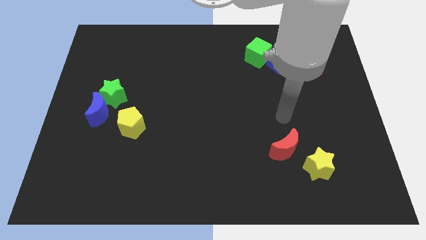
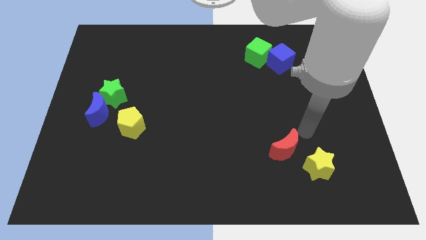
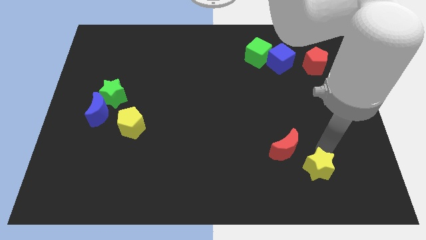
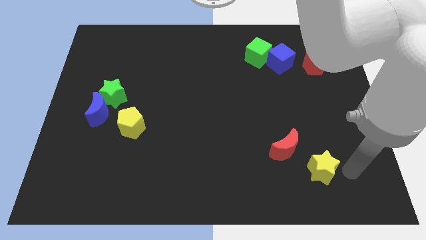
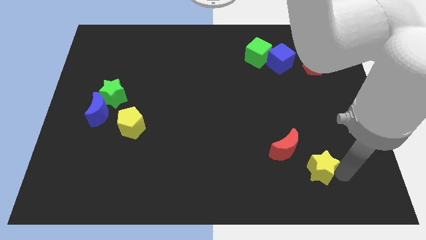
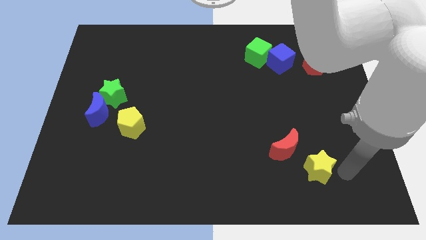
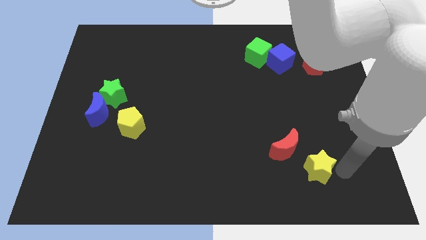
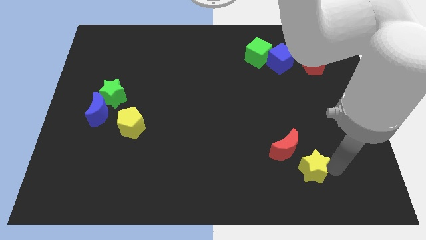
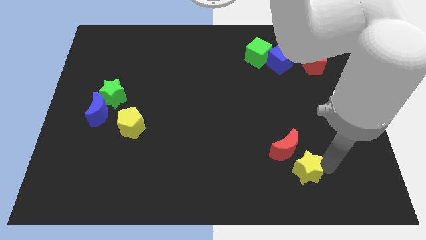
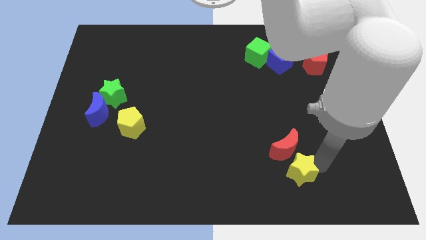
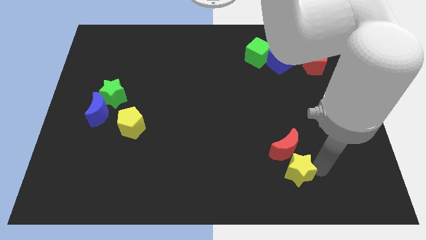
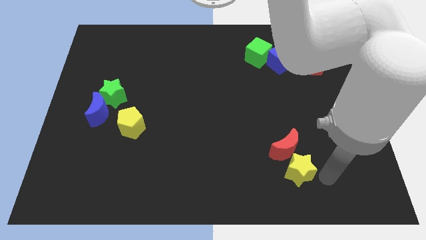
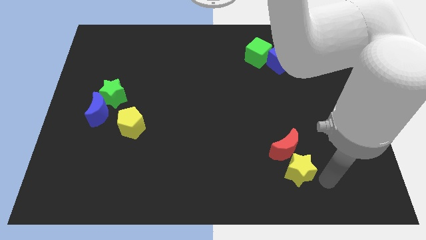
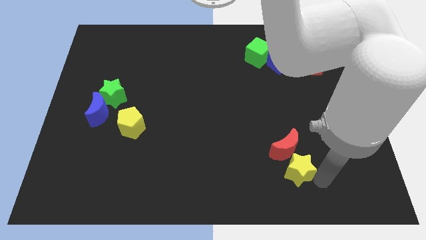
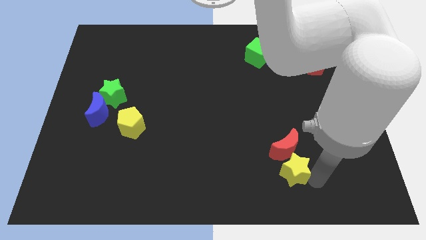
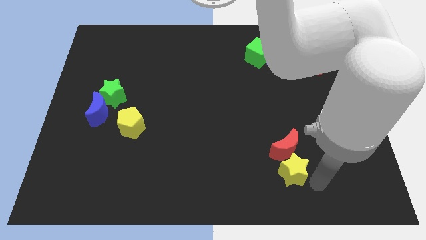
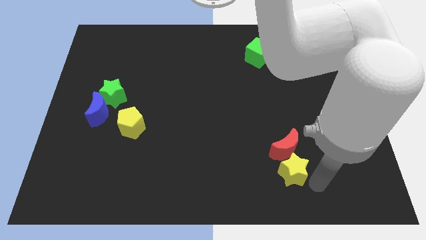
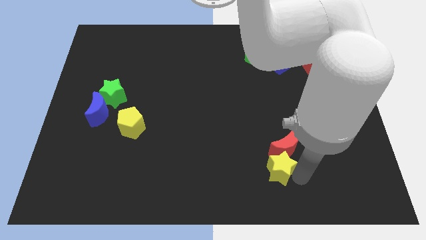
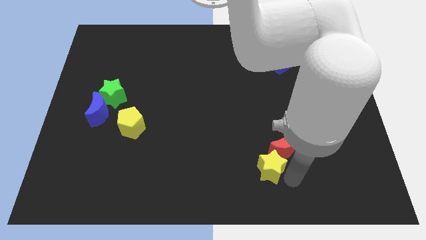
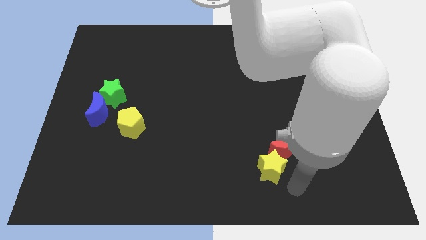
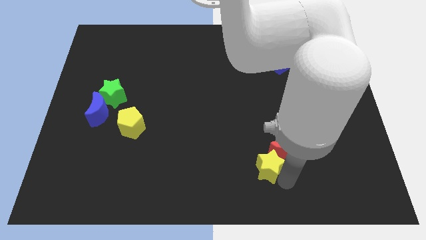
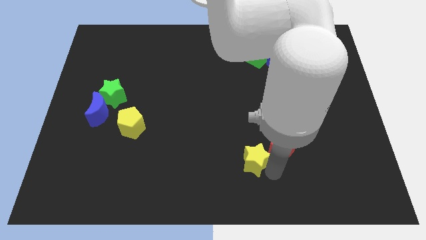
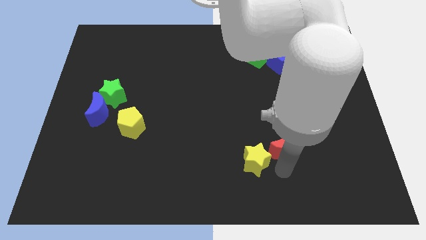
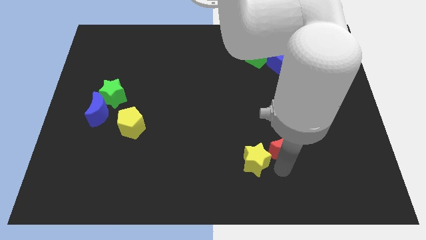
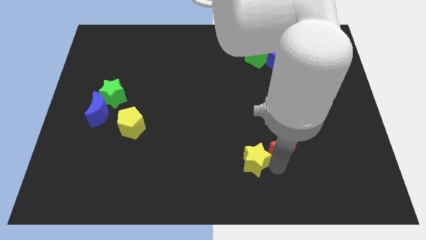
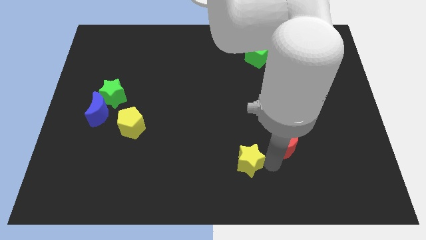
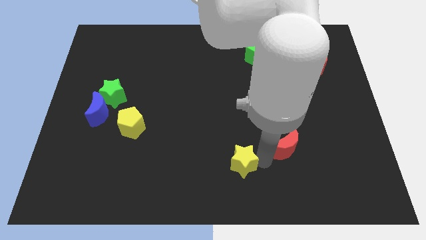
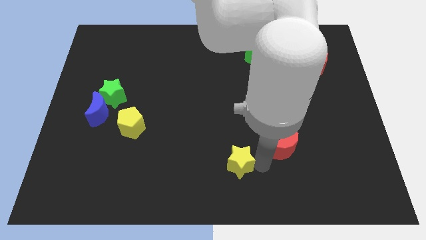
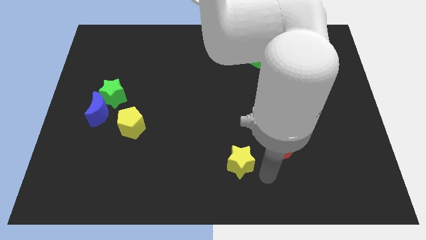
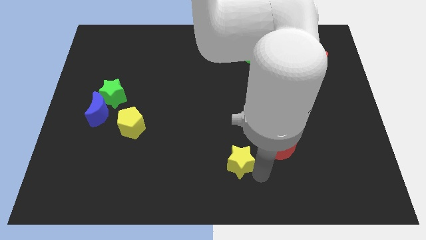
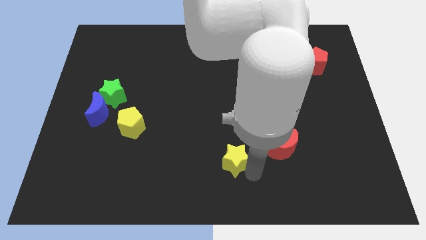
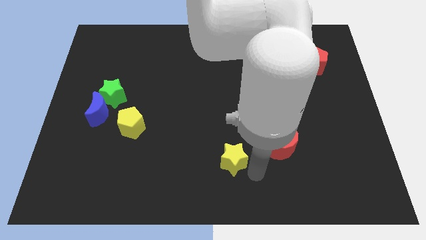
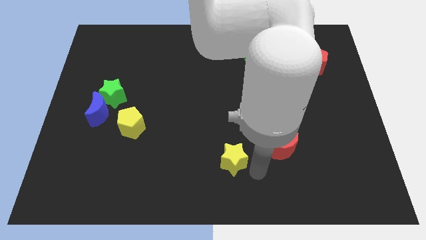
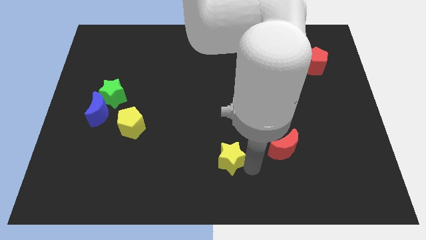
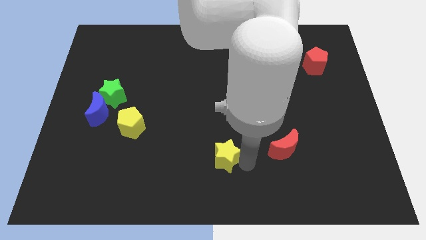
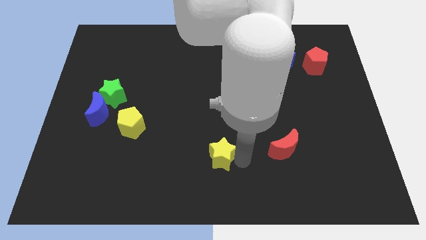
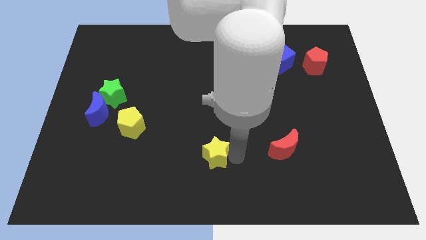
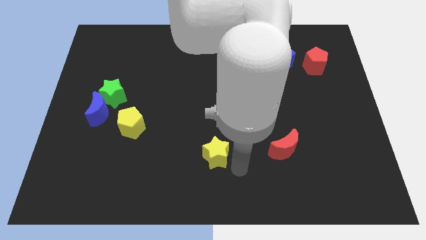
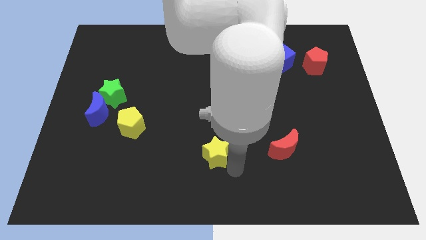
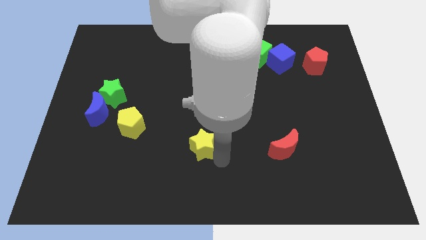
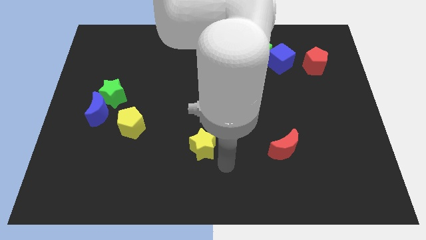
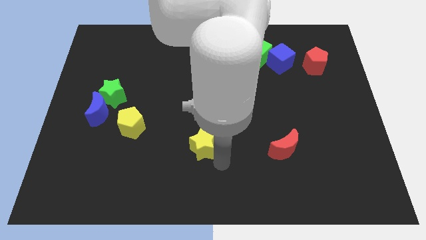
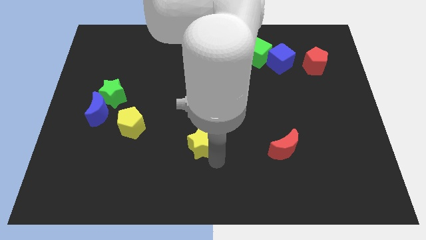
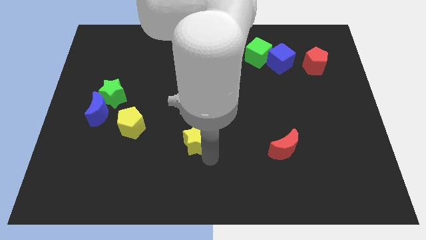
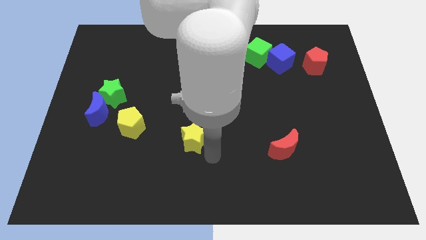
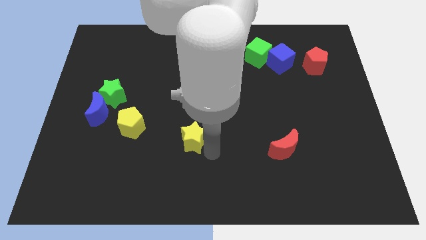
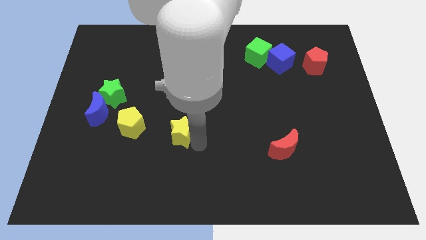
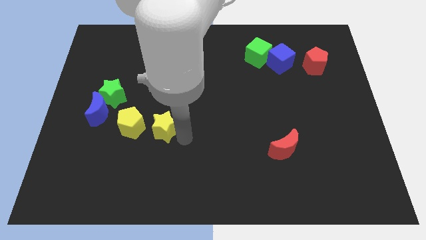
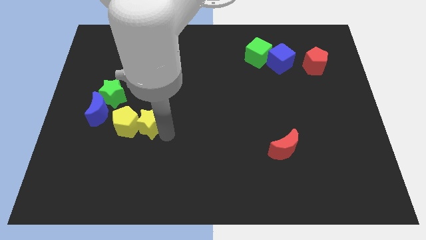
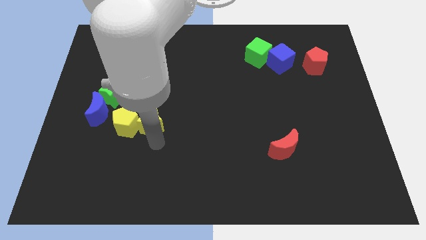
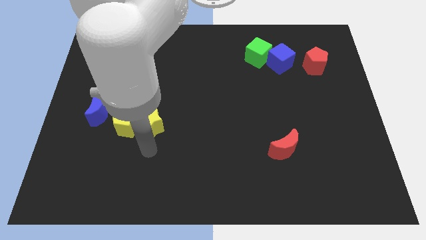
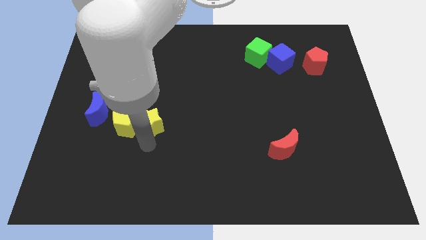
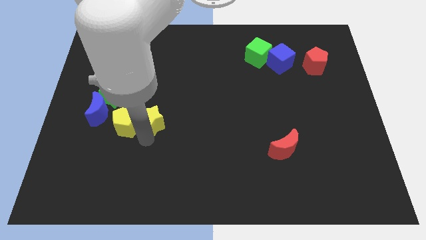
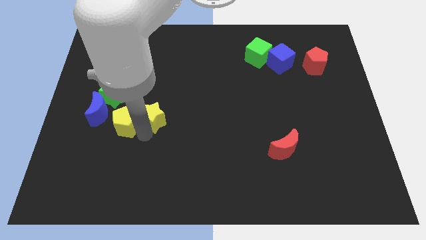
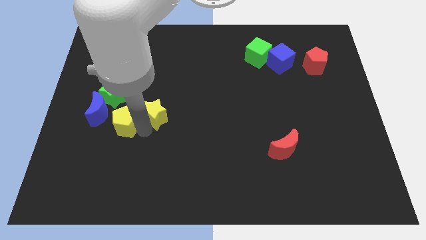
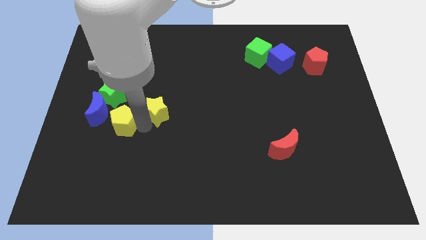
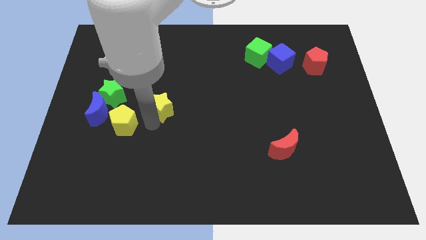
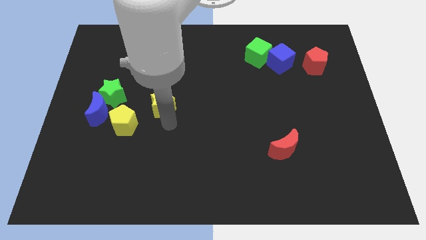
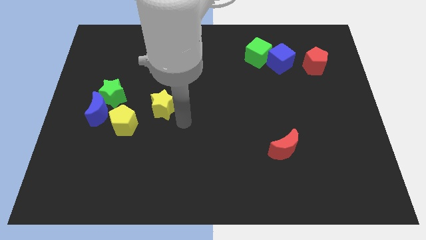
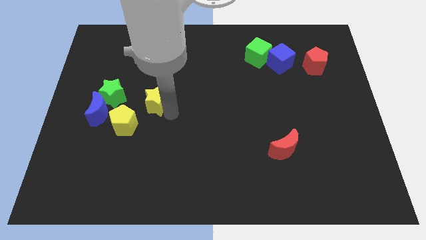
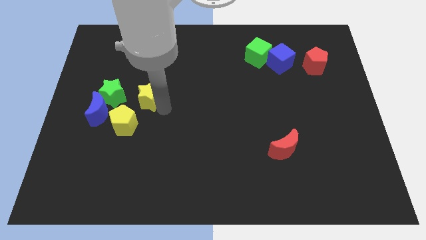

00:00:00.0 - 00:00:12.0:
push the yellow star to the top of the yellow pentagon

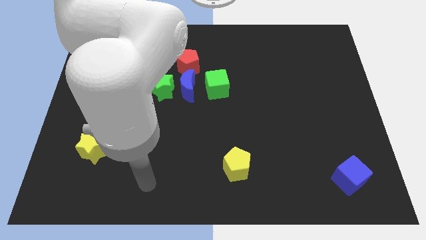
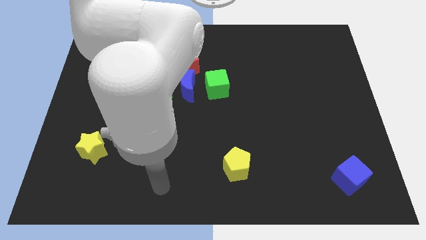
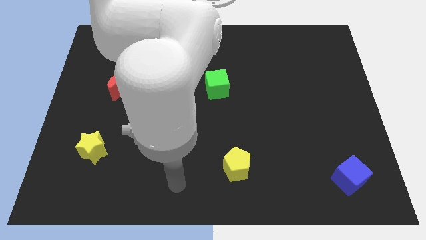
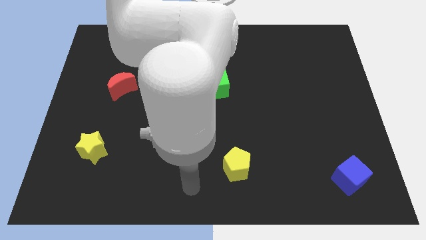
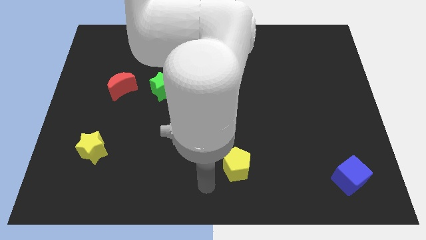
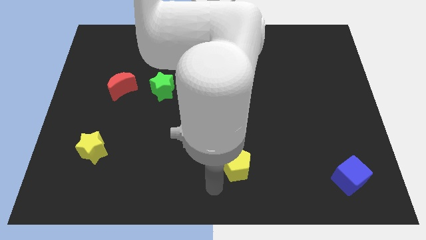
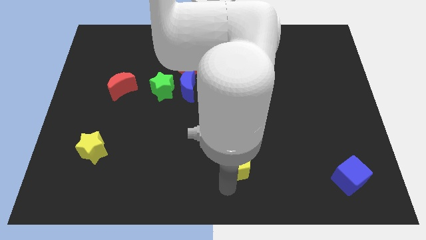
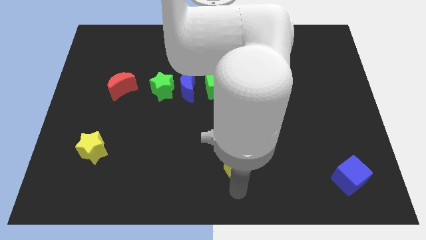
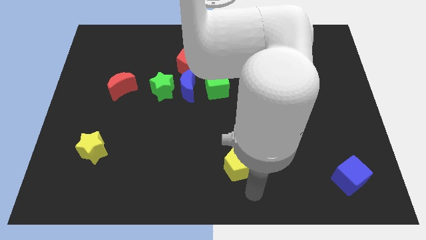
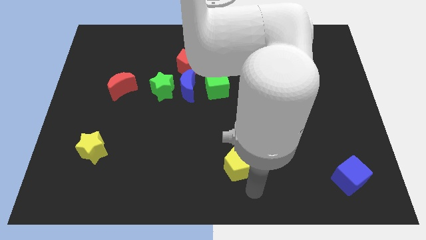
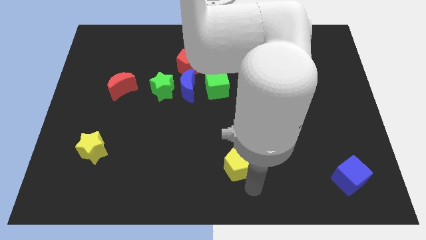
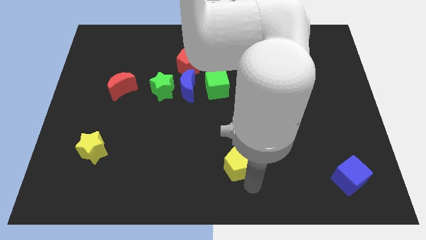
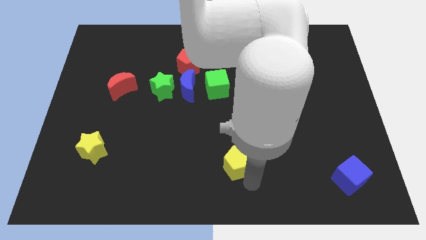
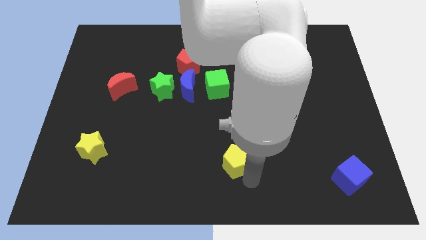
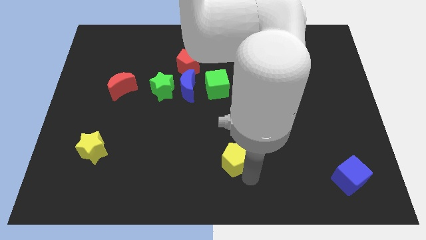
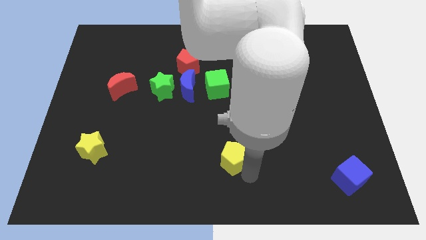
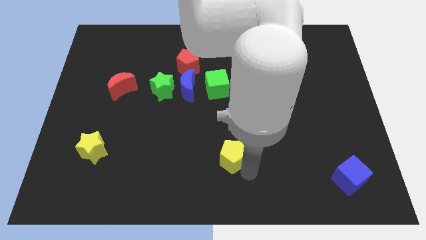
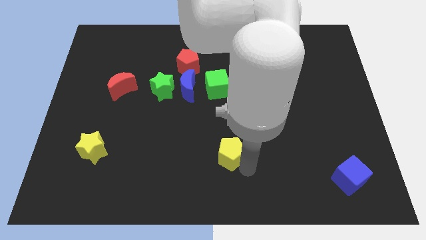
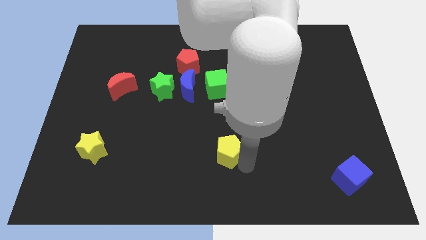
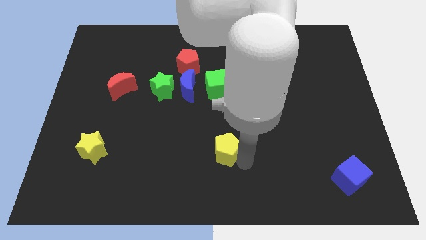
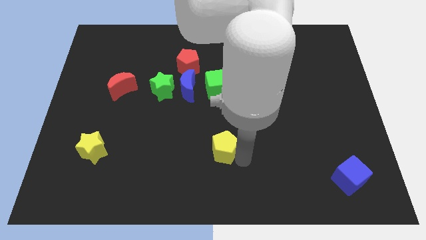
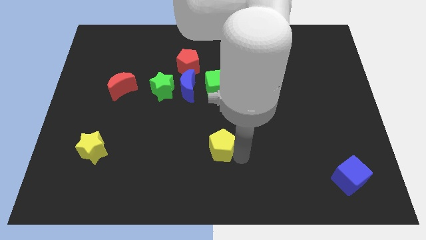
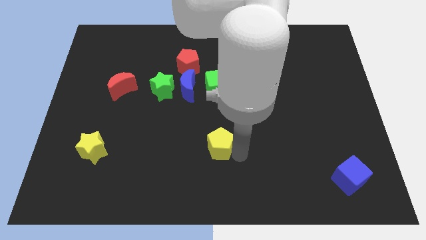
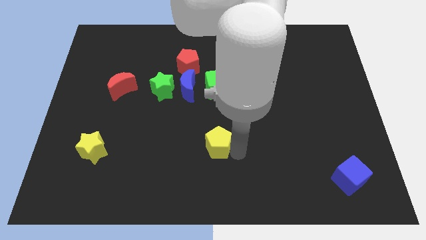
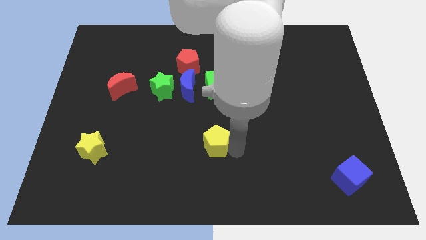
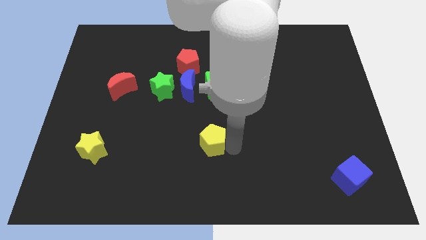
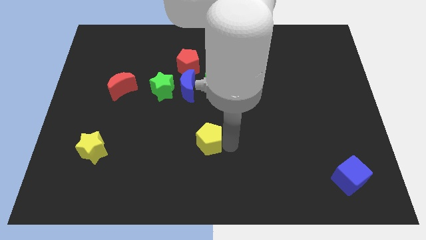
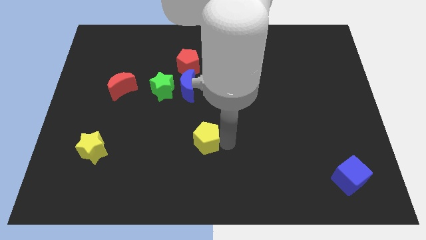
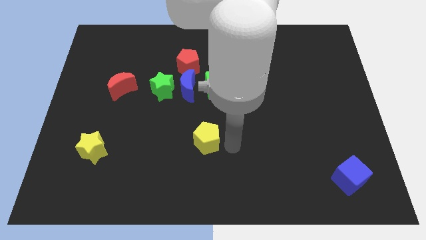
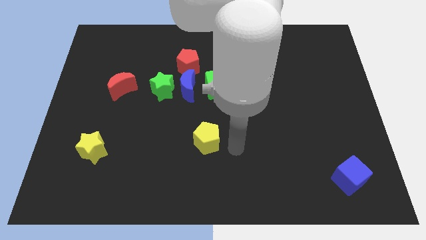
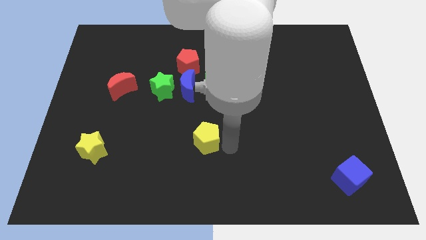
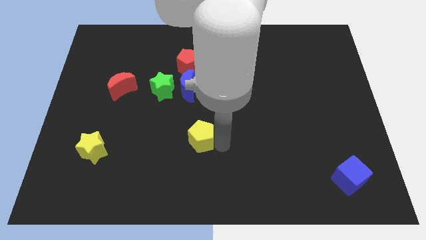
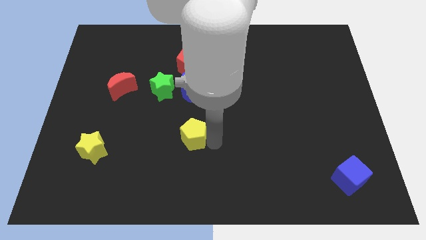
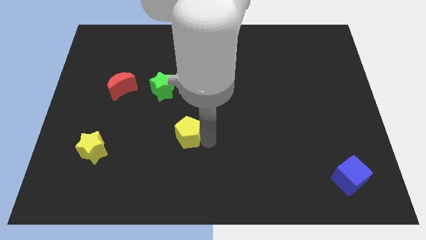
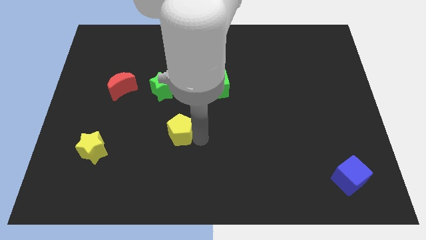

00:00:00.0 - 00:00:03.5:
move the yellow pentagon to the bottom side of the green star
